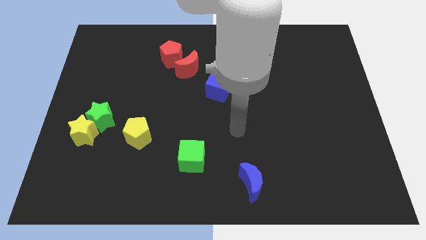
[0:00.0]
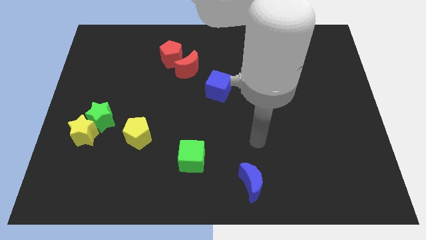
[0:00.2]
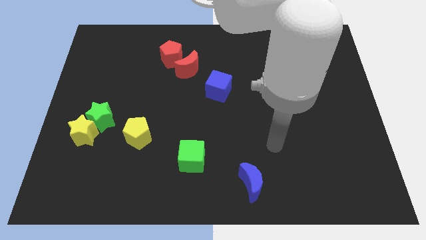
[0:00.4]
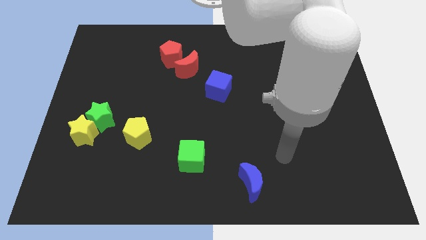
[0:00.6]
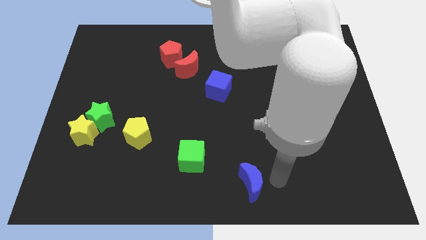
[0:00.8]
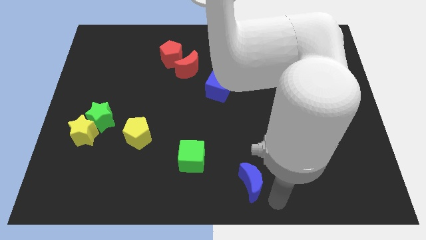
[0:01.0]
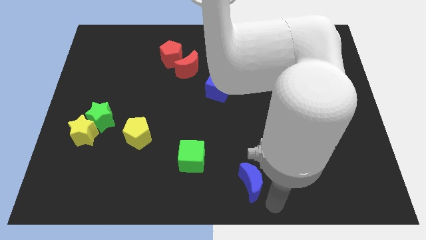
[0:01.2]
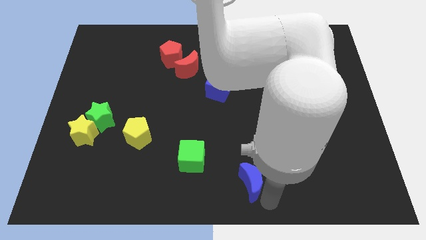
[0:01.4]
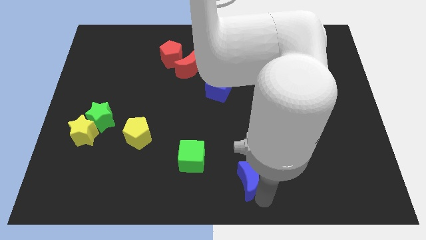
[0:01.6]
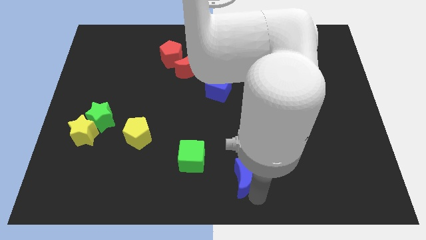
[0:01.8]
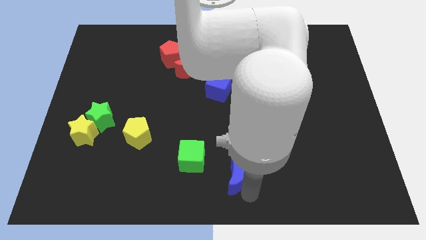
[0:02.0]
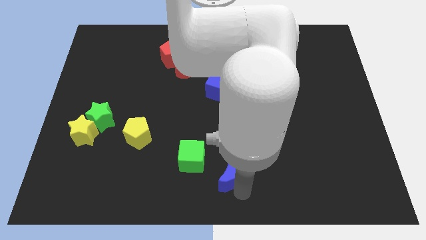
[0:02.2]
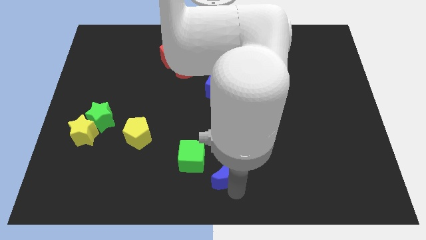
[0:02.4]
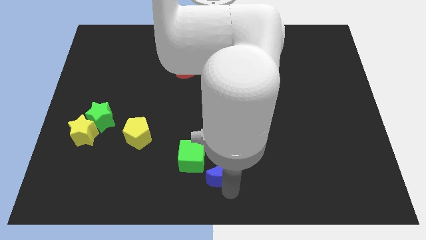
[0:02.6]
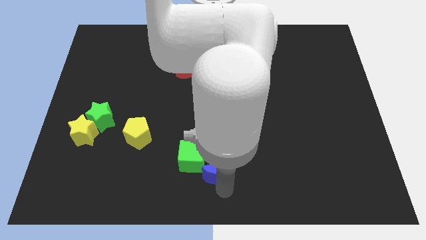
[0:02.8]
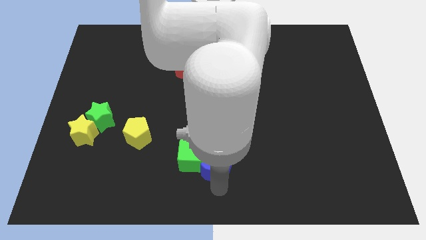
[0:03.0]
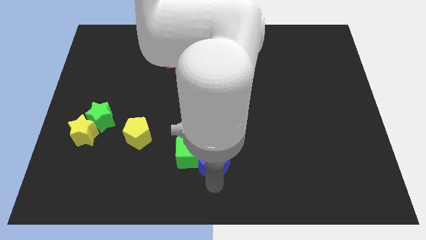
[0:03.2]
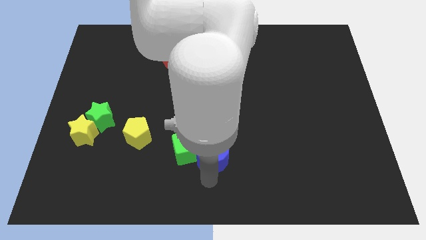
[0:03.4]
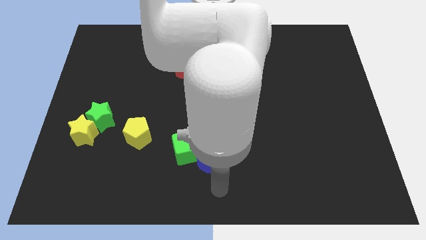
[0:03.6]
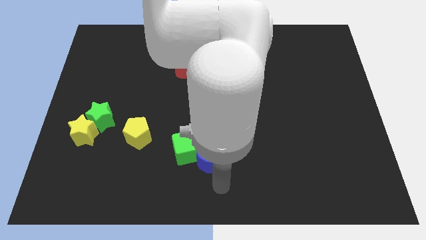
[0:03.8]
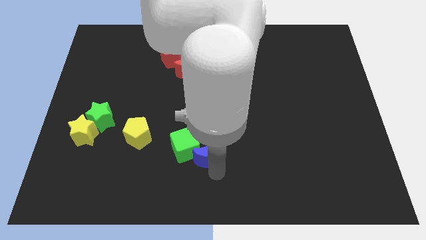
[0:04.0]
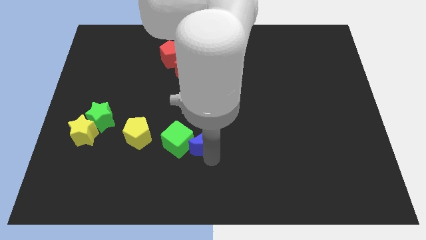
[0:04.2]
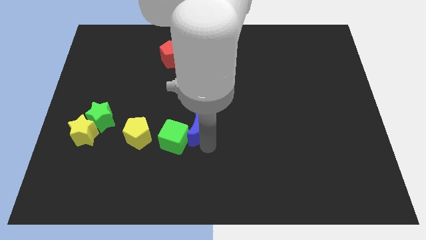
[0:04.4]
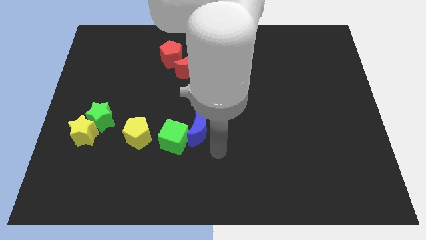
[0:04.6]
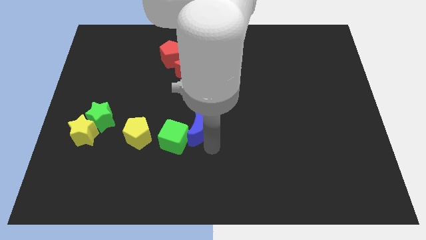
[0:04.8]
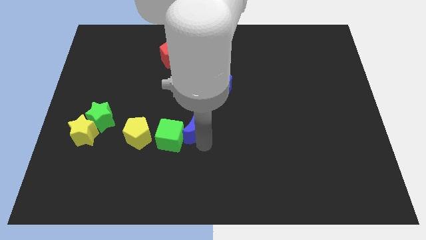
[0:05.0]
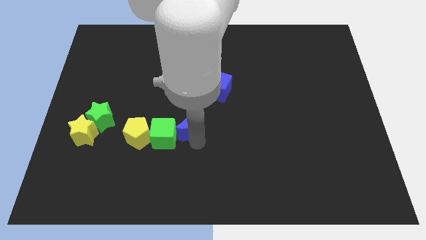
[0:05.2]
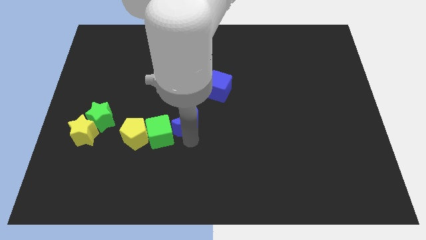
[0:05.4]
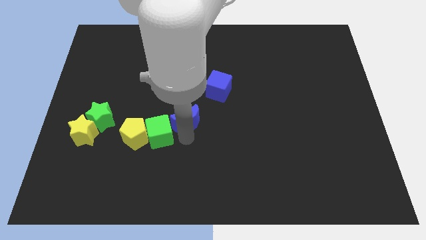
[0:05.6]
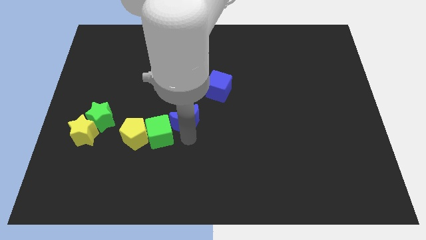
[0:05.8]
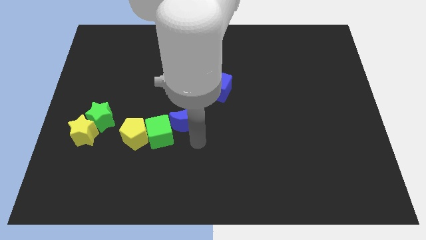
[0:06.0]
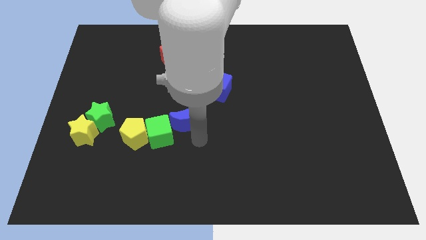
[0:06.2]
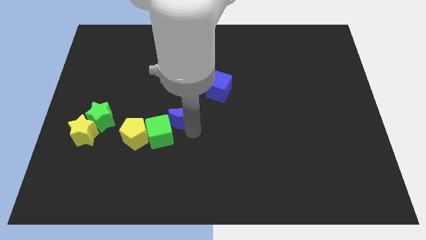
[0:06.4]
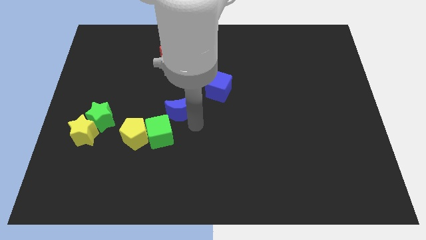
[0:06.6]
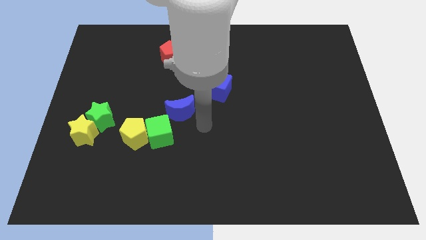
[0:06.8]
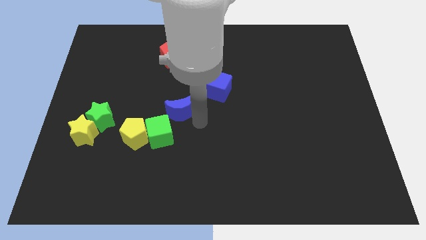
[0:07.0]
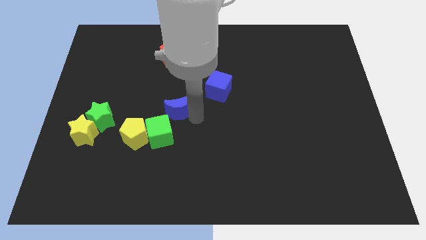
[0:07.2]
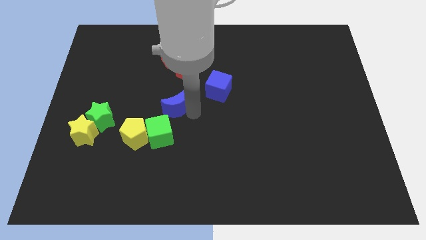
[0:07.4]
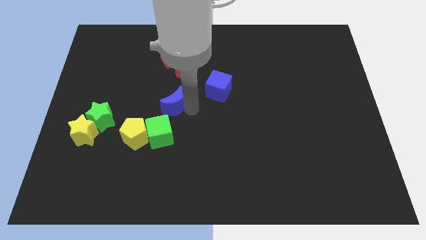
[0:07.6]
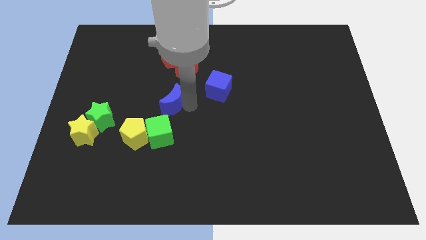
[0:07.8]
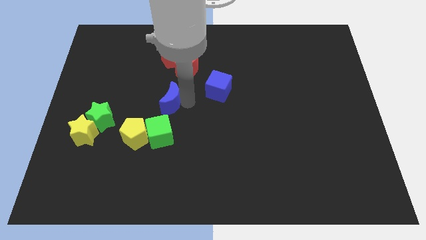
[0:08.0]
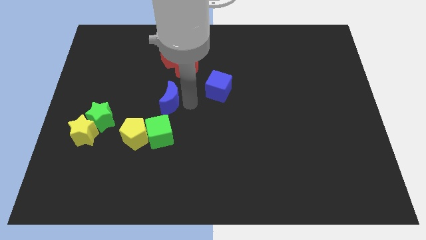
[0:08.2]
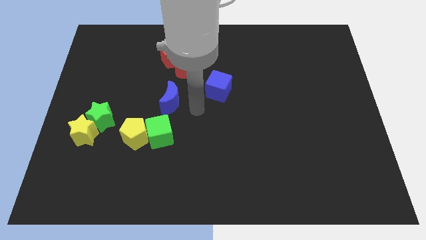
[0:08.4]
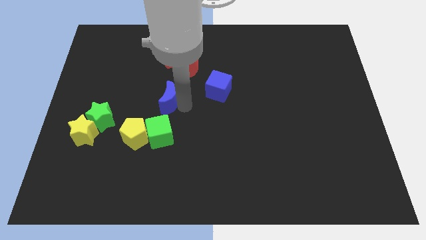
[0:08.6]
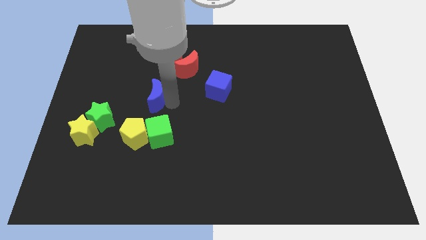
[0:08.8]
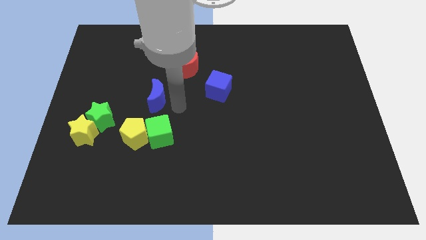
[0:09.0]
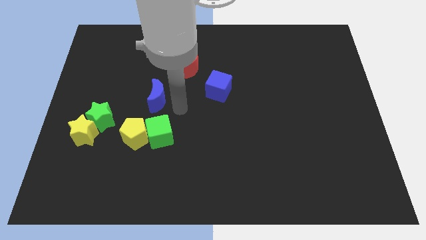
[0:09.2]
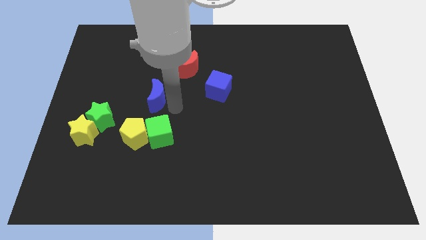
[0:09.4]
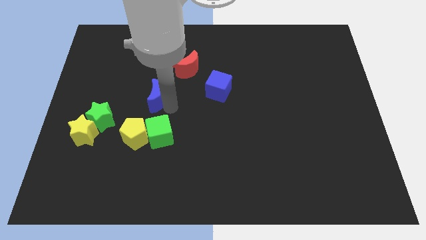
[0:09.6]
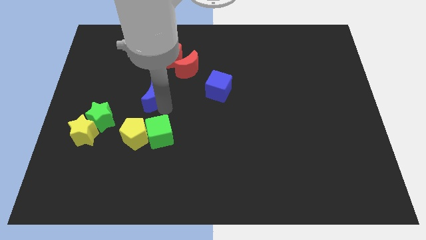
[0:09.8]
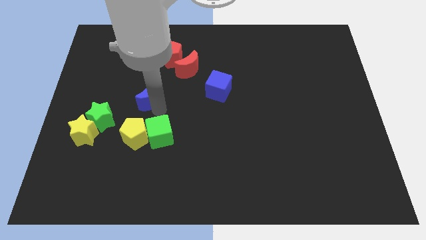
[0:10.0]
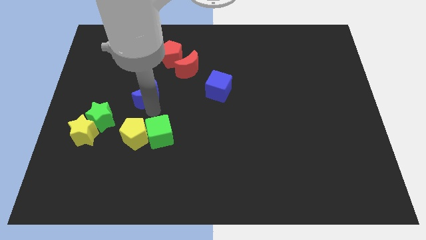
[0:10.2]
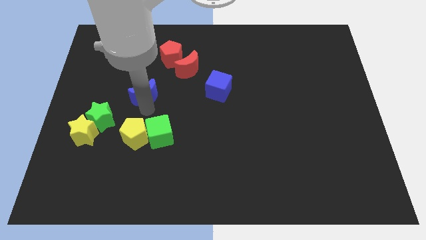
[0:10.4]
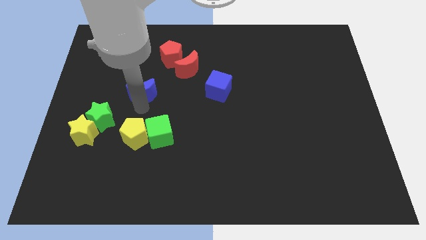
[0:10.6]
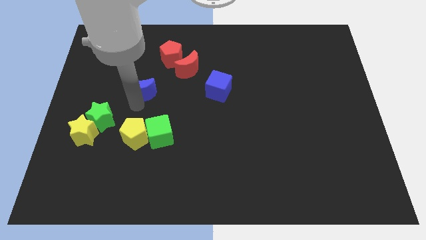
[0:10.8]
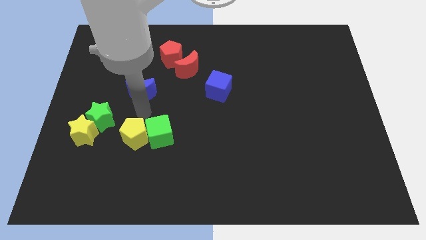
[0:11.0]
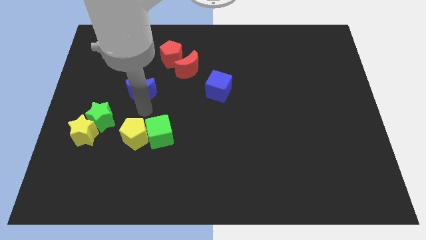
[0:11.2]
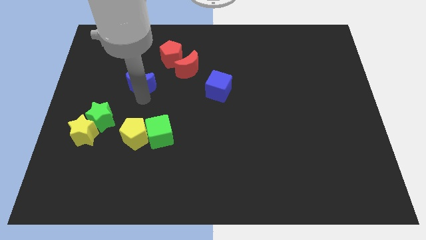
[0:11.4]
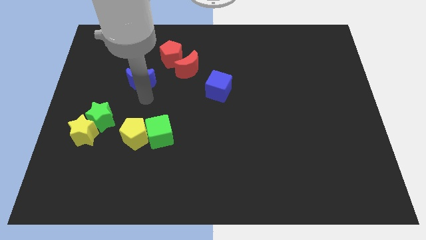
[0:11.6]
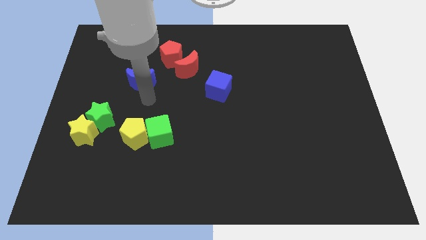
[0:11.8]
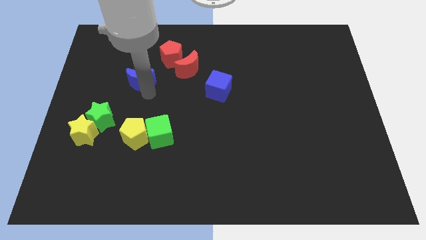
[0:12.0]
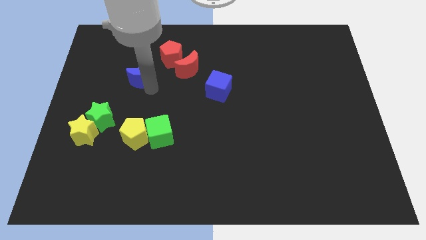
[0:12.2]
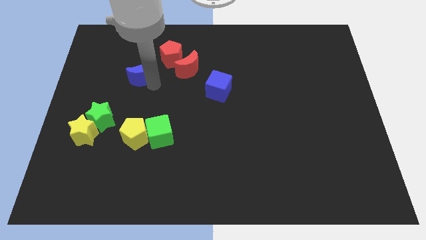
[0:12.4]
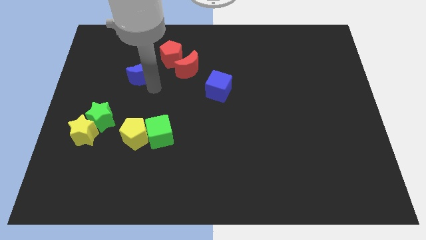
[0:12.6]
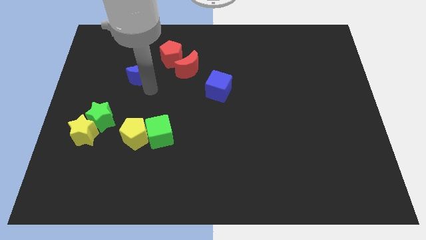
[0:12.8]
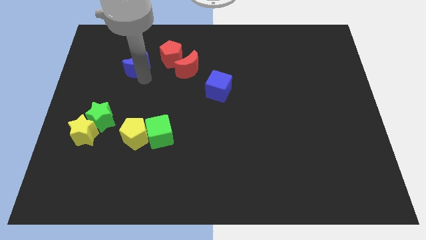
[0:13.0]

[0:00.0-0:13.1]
move the blue moon to the left side of the red pentagon

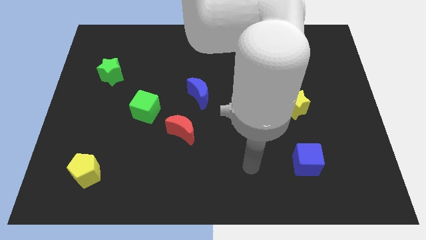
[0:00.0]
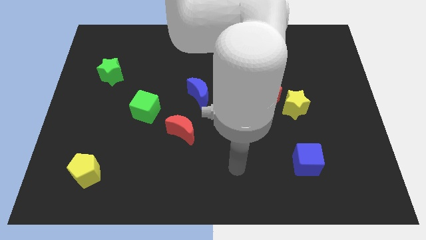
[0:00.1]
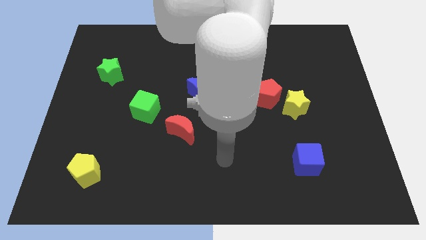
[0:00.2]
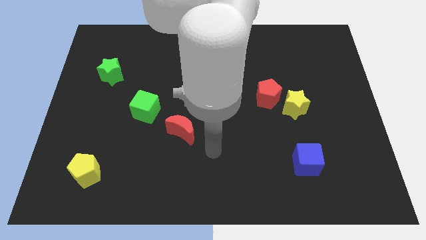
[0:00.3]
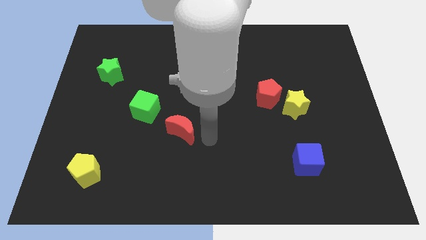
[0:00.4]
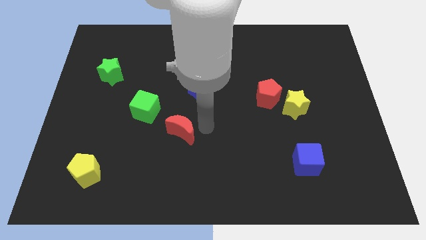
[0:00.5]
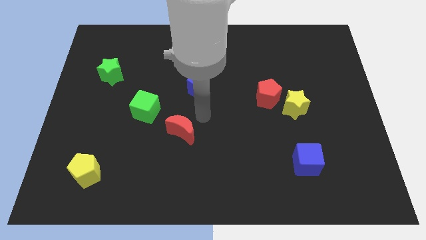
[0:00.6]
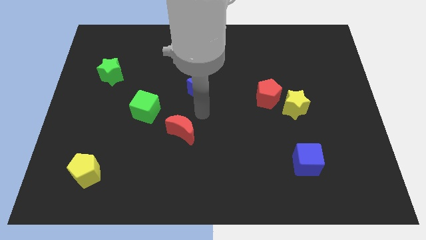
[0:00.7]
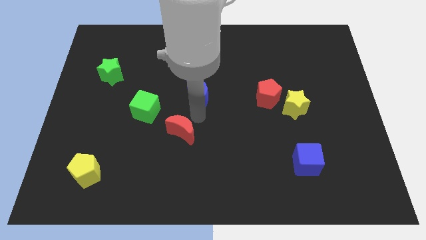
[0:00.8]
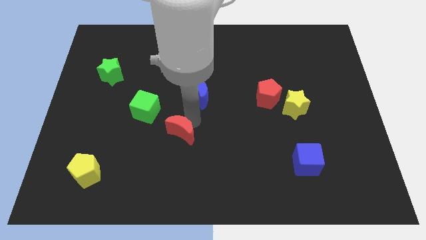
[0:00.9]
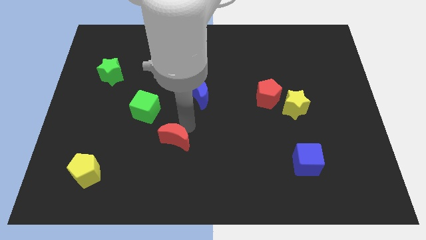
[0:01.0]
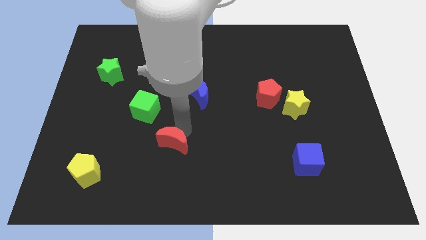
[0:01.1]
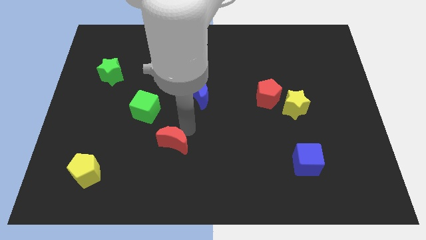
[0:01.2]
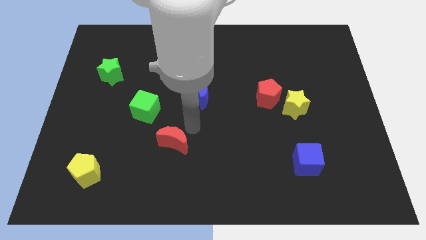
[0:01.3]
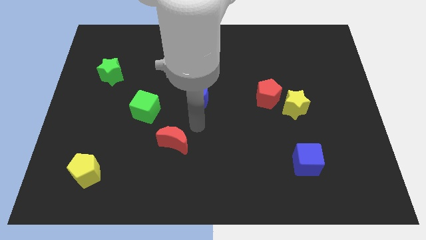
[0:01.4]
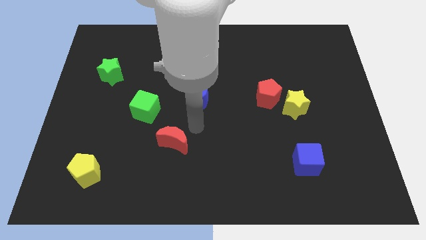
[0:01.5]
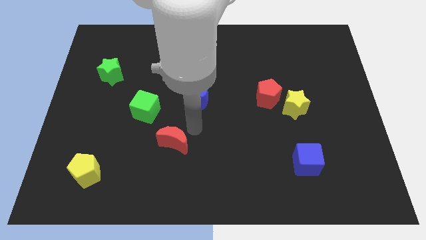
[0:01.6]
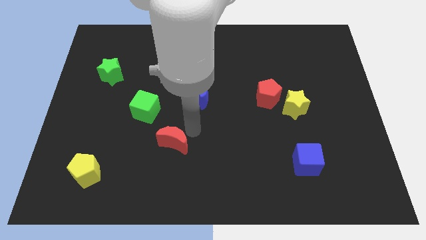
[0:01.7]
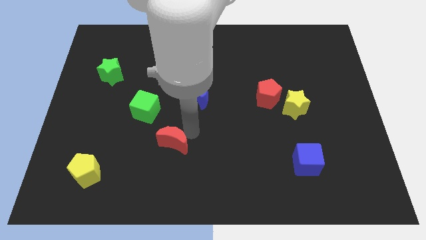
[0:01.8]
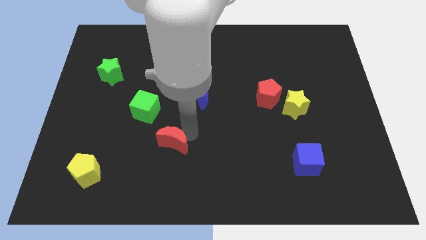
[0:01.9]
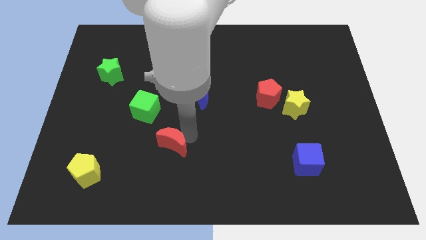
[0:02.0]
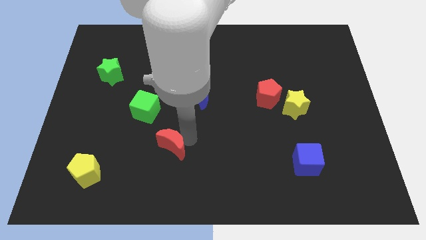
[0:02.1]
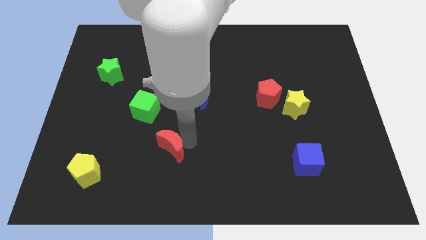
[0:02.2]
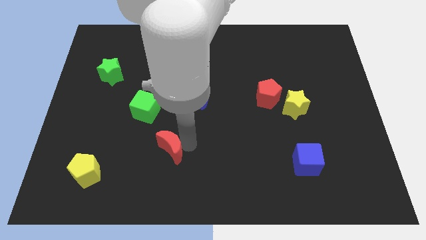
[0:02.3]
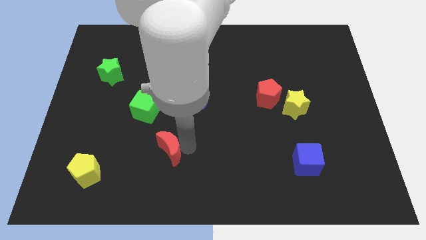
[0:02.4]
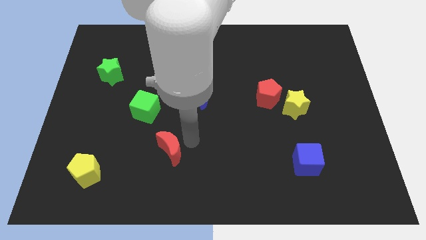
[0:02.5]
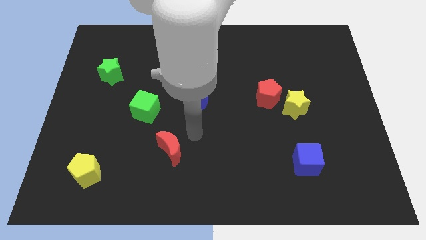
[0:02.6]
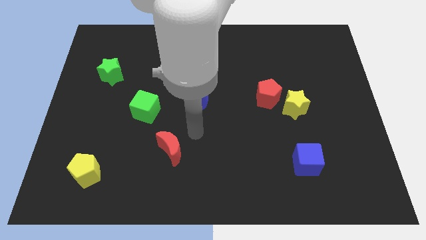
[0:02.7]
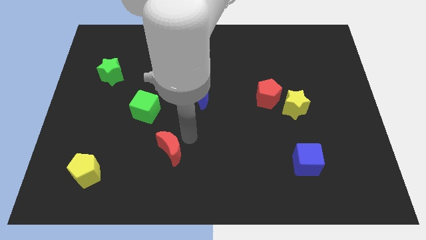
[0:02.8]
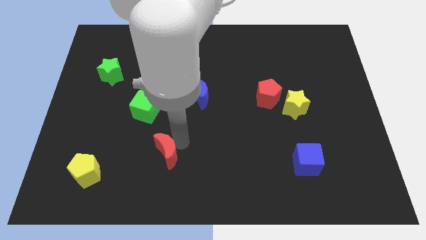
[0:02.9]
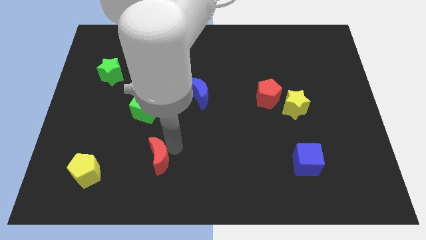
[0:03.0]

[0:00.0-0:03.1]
put the red moon just right of the yellow pentagon
